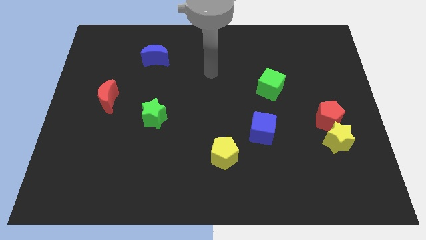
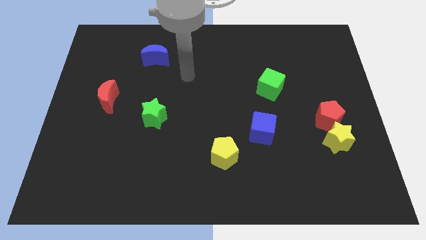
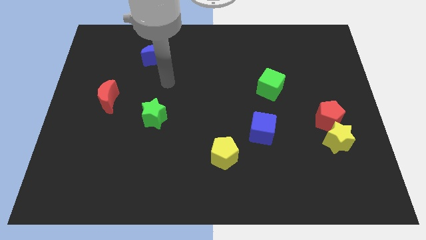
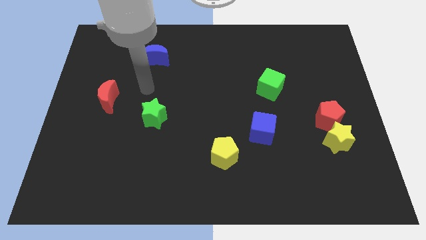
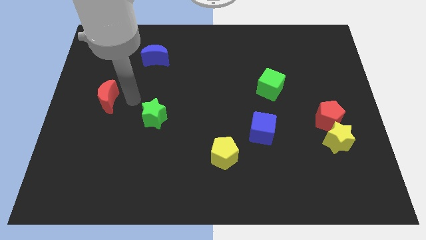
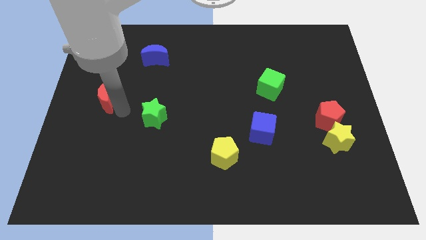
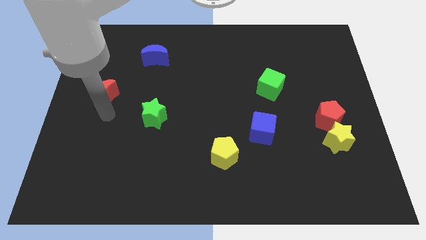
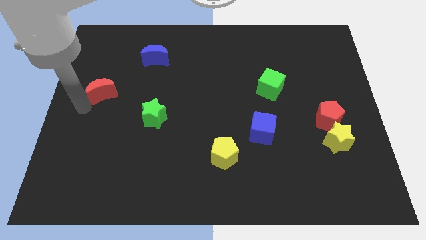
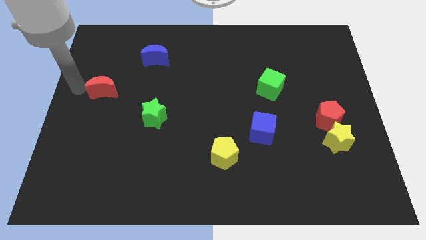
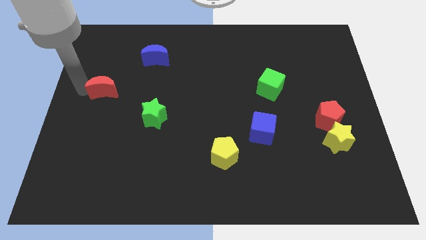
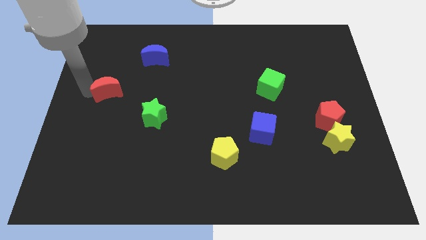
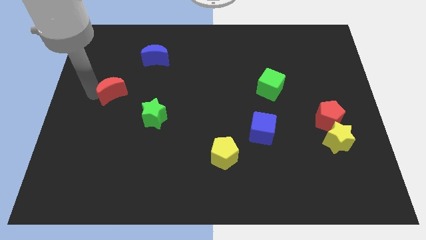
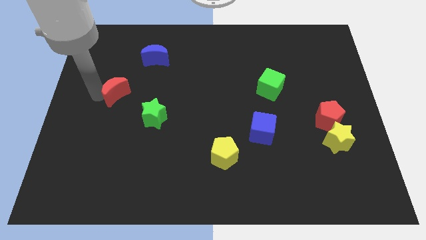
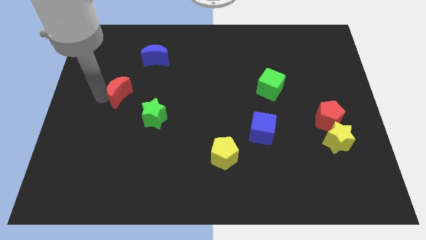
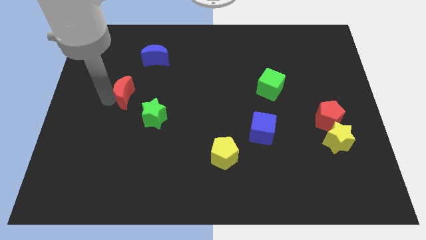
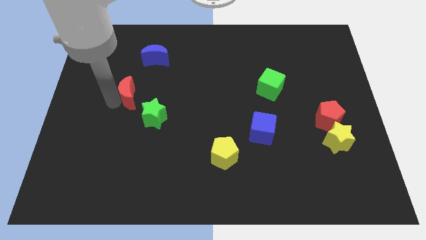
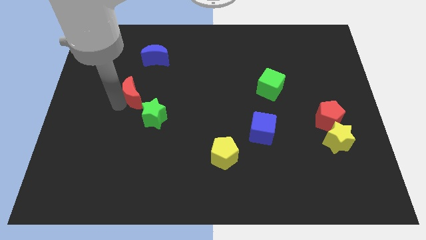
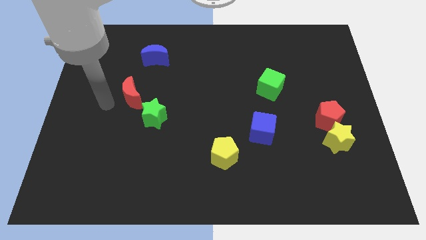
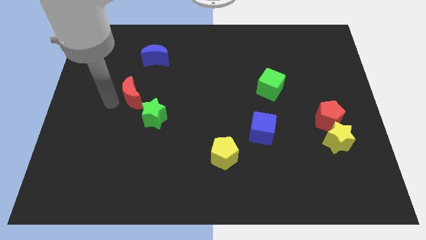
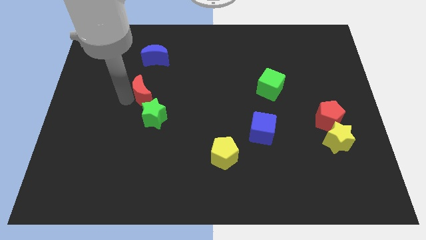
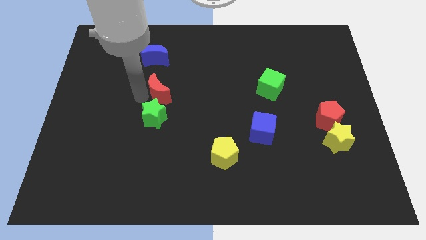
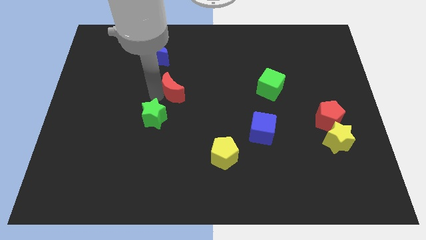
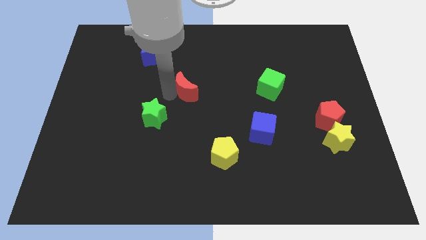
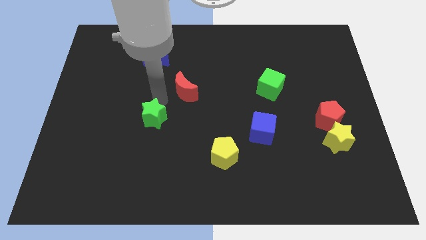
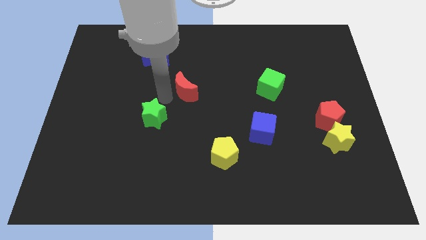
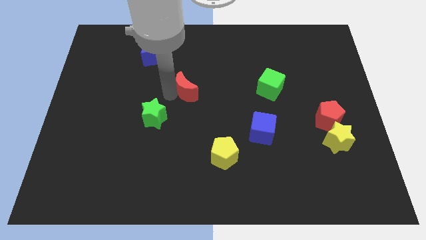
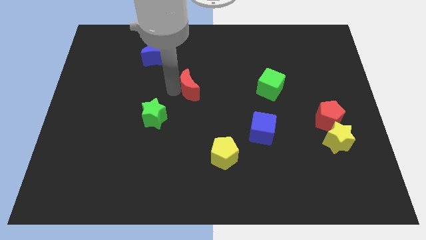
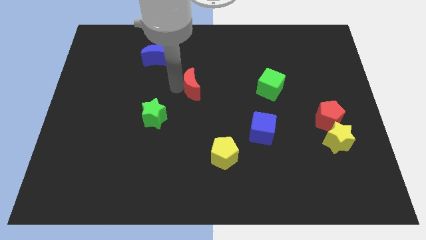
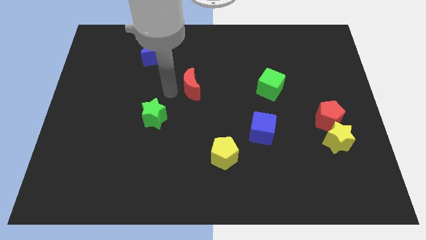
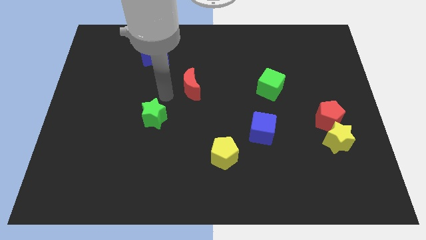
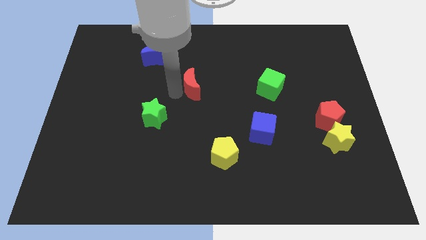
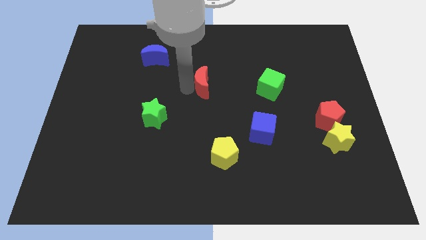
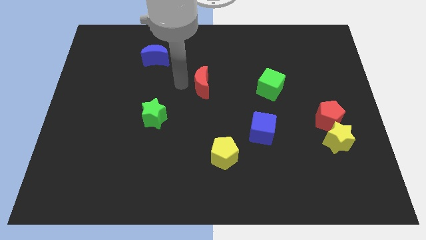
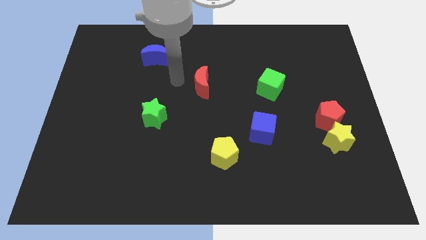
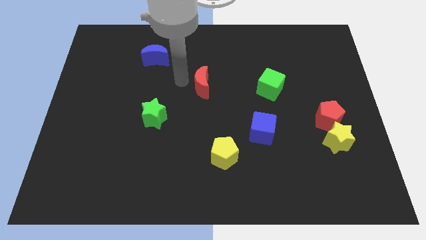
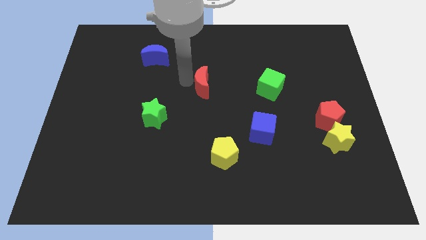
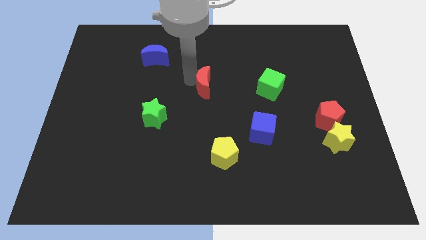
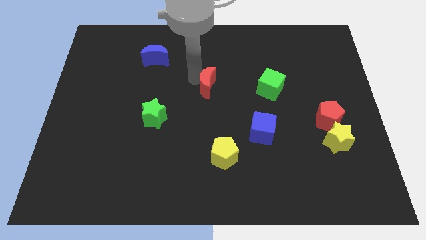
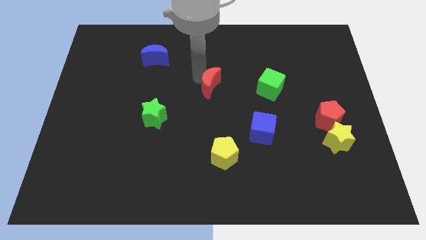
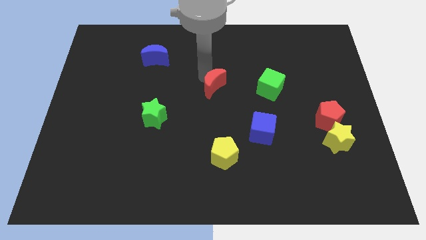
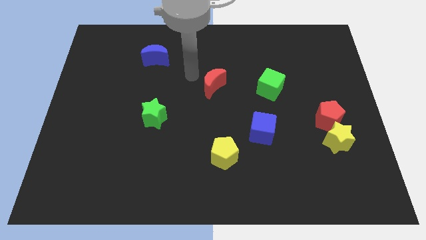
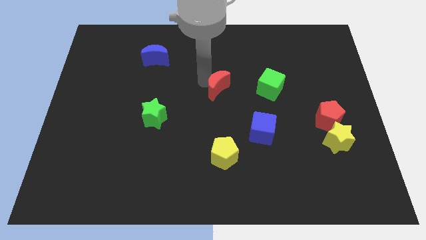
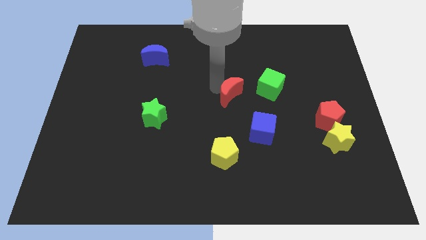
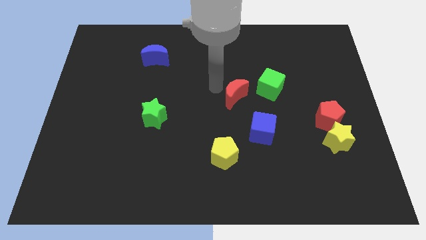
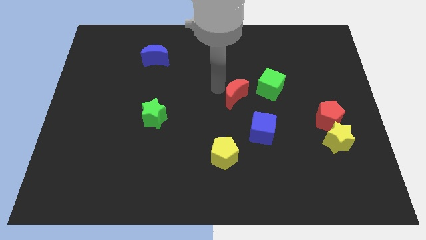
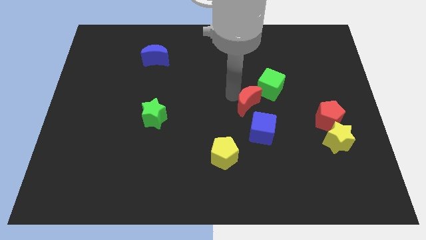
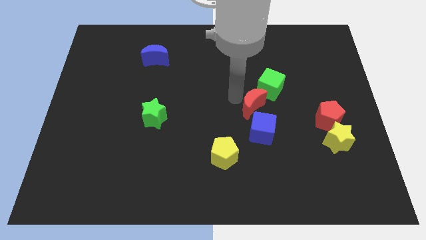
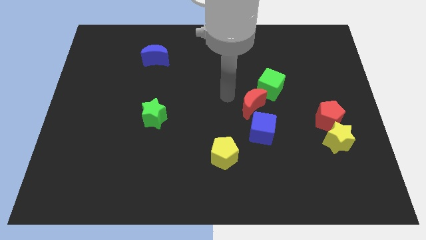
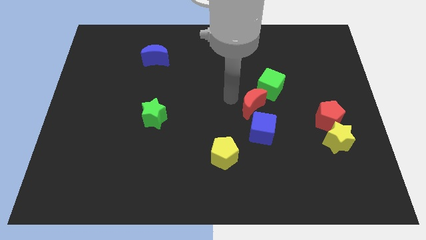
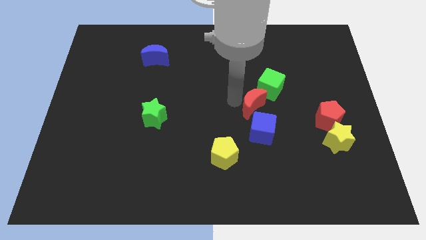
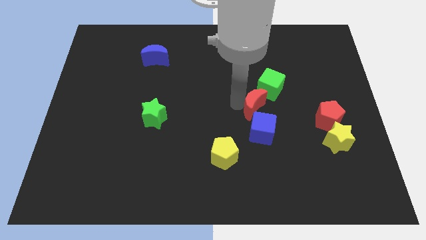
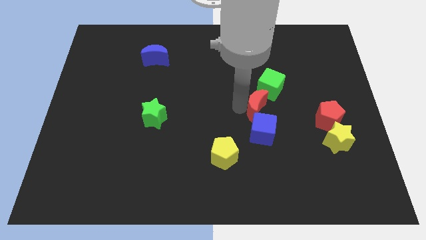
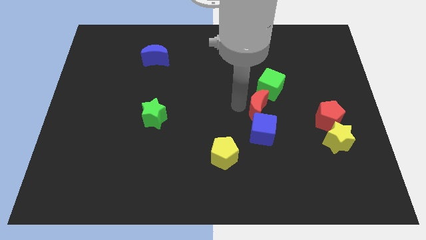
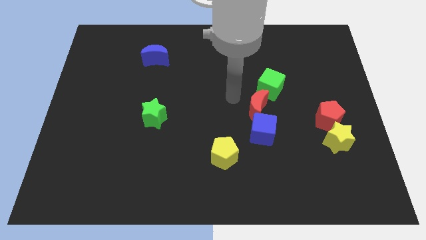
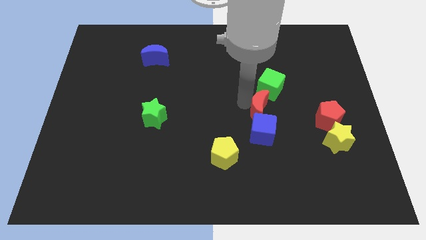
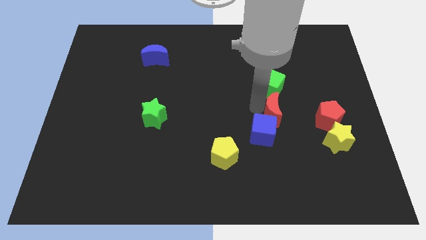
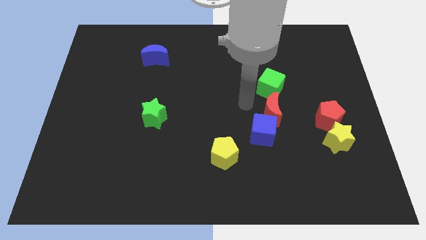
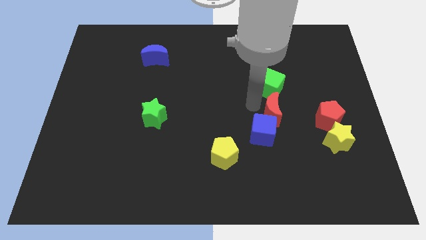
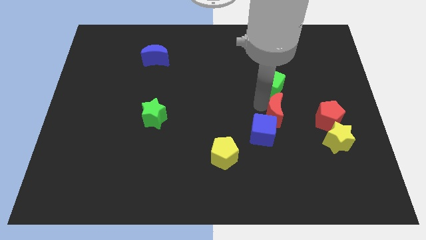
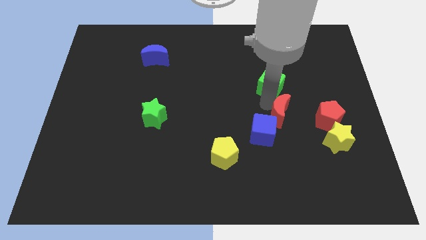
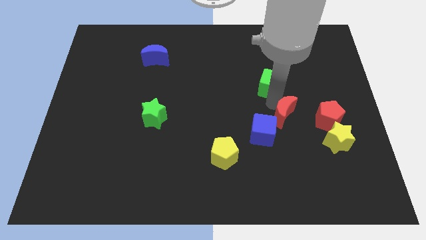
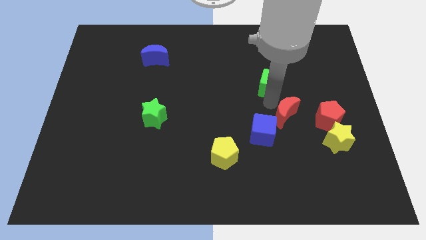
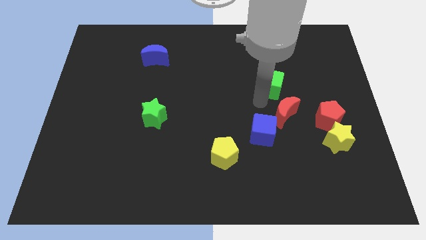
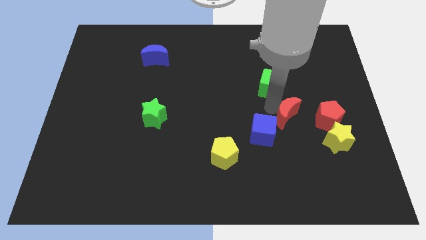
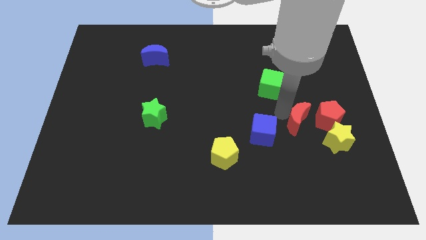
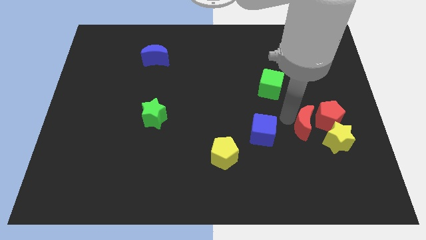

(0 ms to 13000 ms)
push the red moon to the red pentagon
